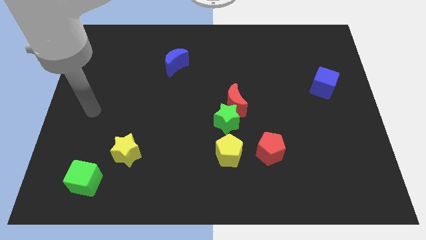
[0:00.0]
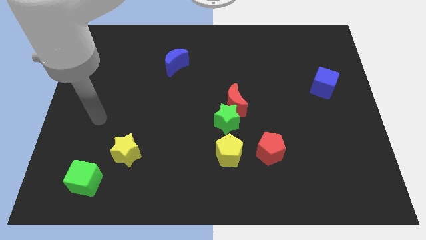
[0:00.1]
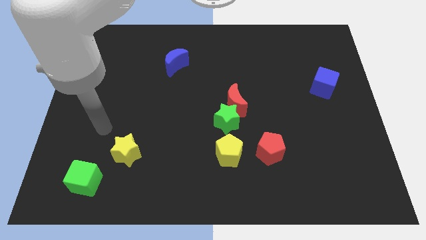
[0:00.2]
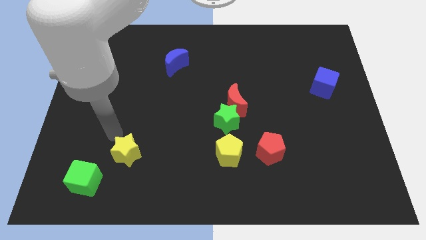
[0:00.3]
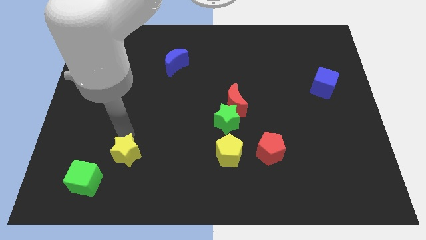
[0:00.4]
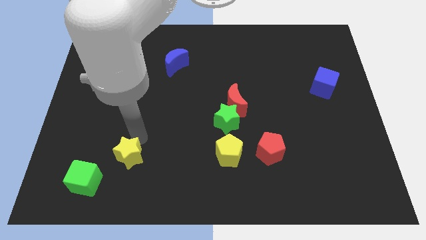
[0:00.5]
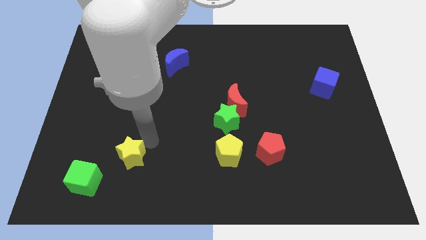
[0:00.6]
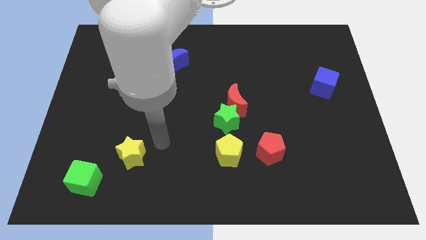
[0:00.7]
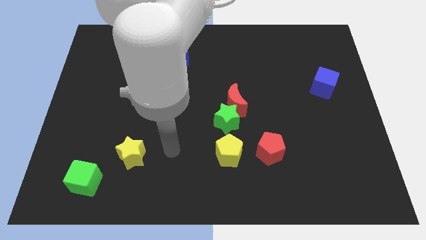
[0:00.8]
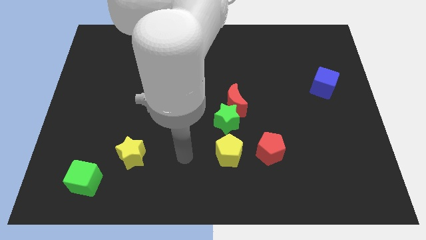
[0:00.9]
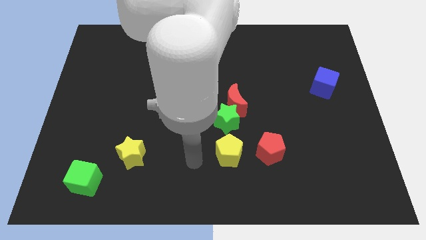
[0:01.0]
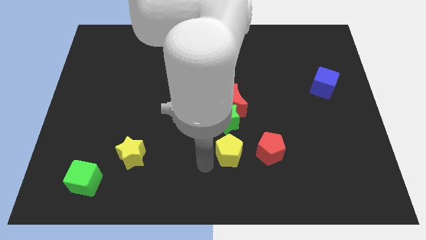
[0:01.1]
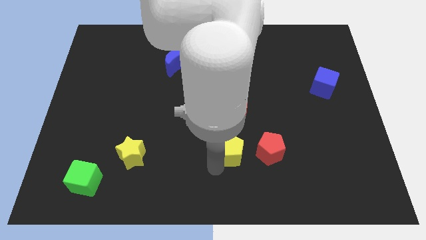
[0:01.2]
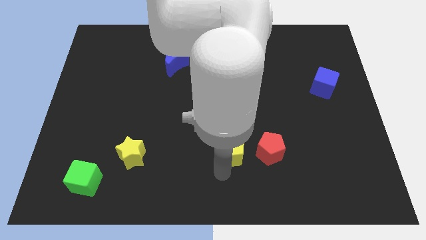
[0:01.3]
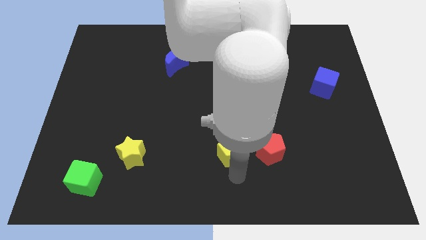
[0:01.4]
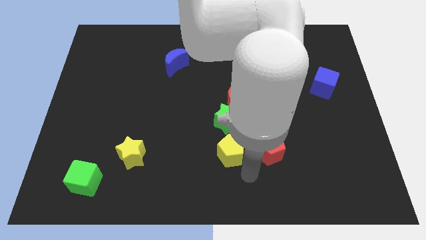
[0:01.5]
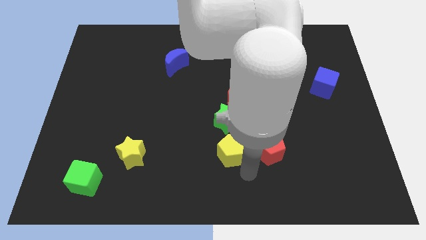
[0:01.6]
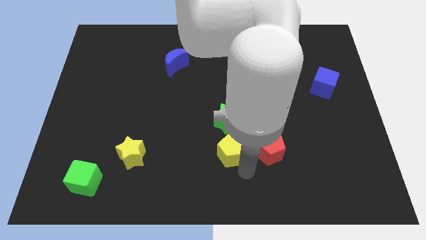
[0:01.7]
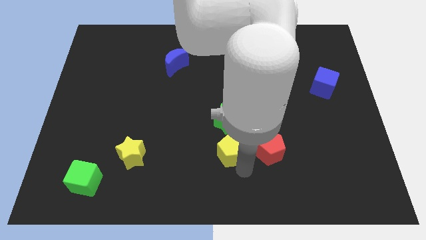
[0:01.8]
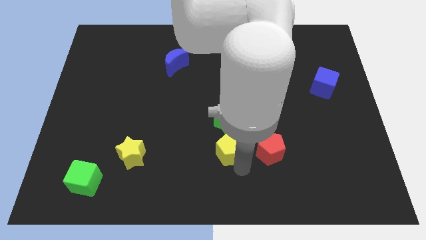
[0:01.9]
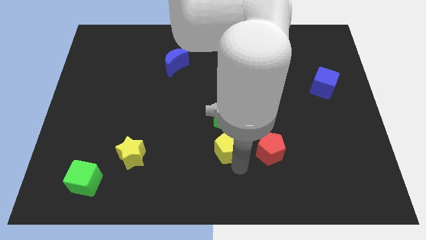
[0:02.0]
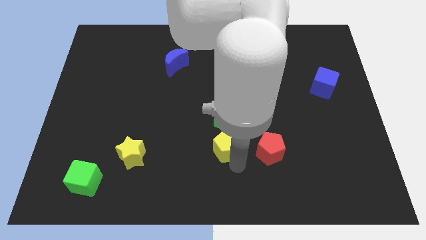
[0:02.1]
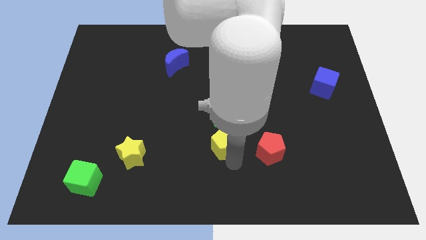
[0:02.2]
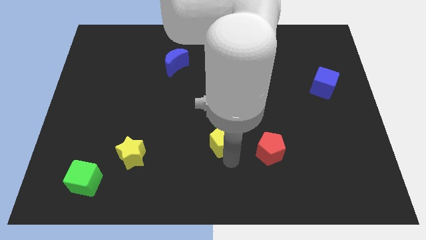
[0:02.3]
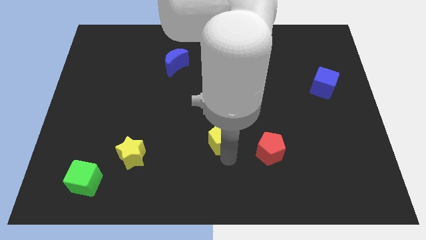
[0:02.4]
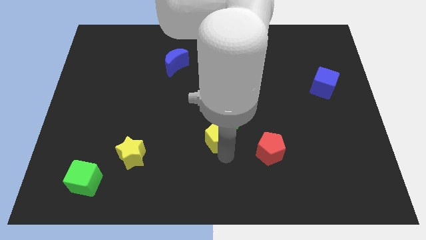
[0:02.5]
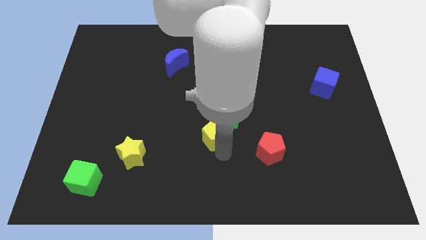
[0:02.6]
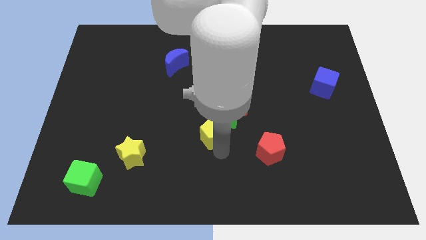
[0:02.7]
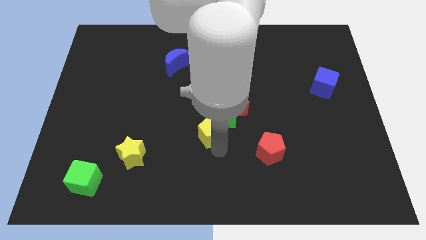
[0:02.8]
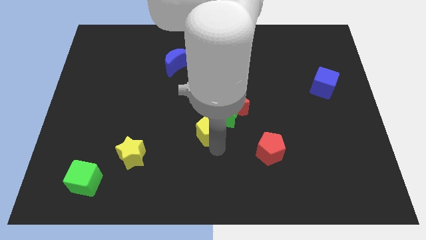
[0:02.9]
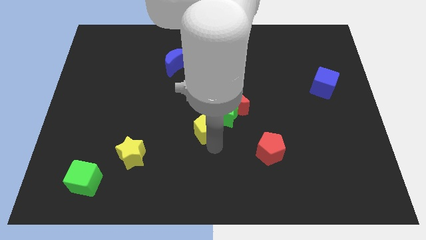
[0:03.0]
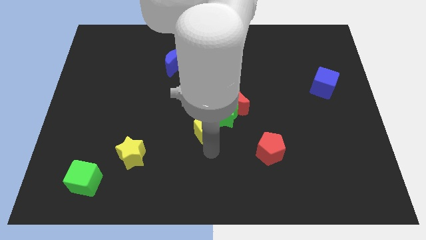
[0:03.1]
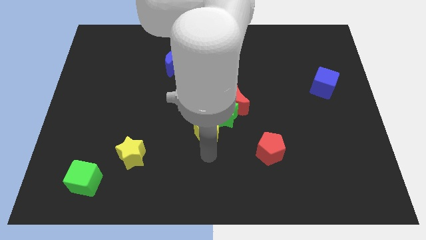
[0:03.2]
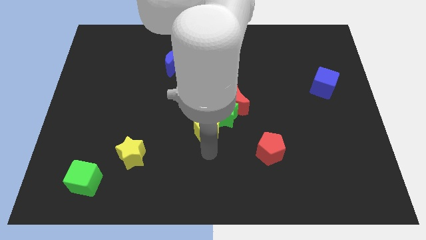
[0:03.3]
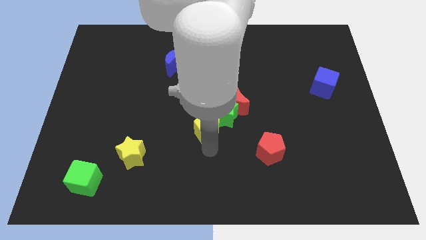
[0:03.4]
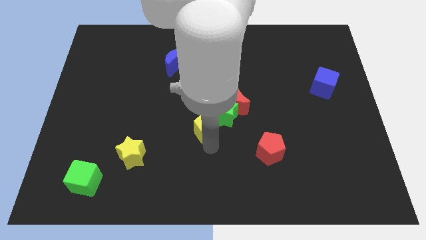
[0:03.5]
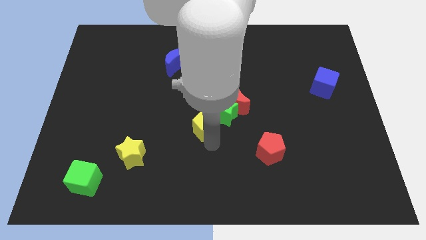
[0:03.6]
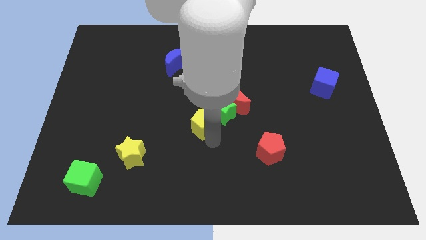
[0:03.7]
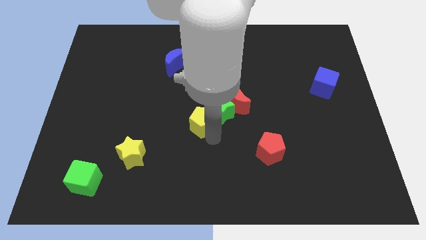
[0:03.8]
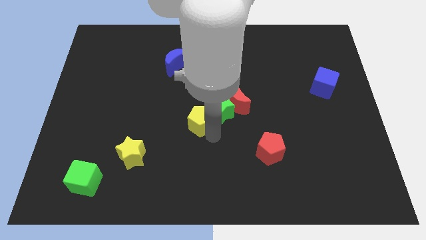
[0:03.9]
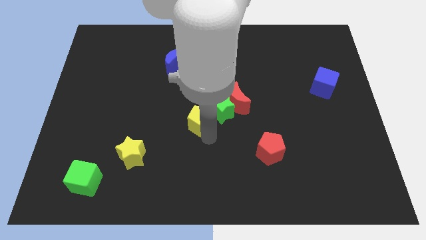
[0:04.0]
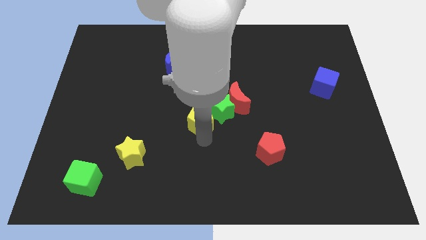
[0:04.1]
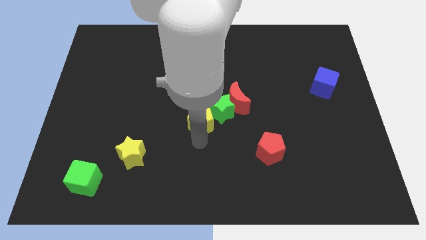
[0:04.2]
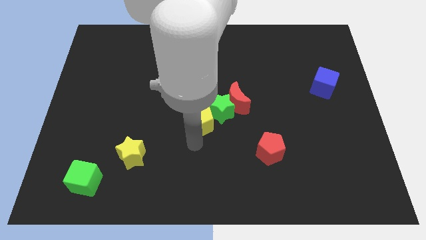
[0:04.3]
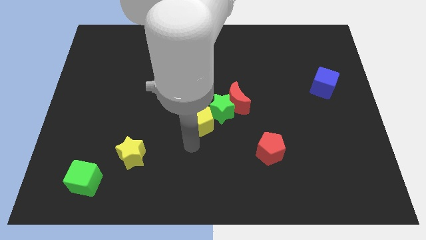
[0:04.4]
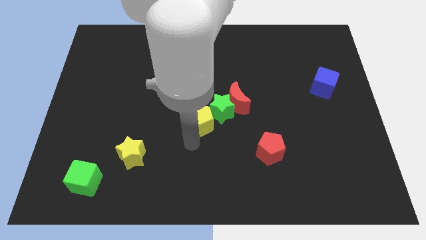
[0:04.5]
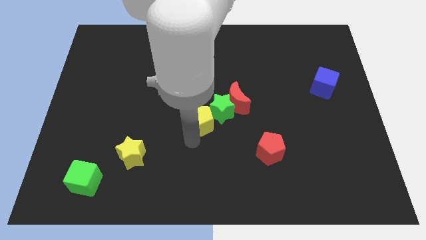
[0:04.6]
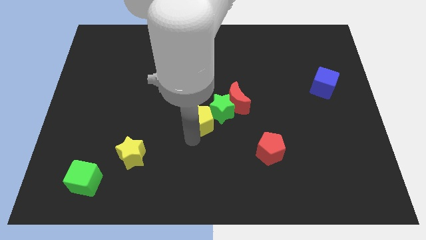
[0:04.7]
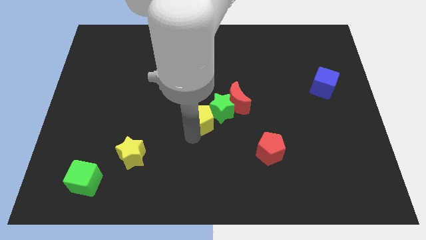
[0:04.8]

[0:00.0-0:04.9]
slide the yellow pentagon somewhat upwards

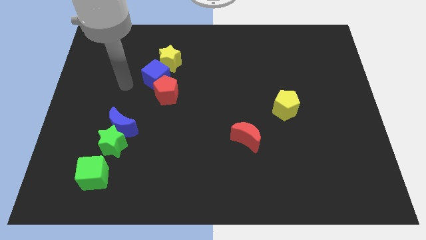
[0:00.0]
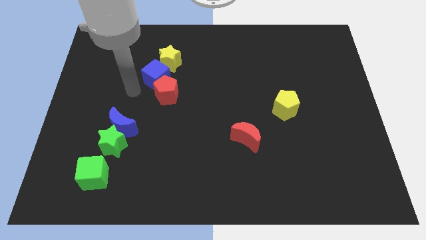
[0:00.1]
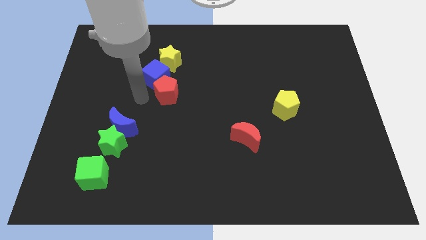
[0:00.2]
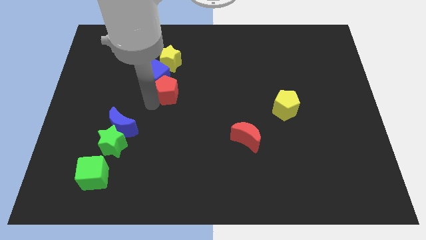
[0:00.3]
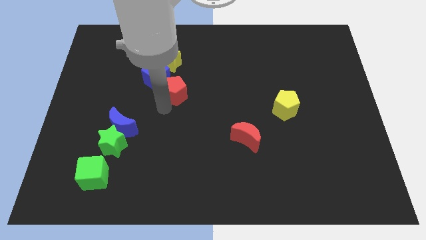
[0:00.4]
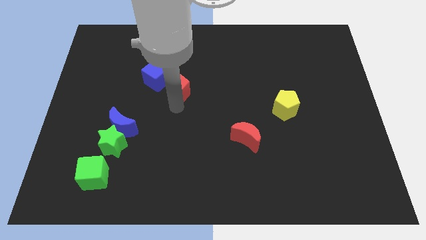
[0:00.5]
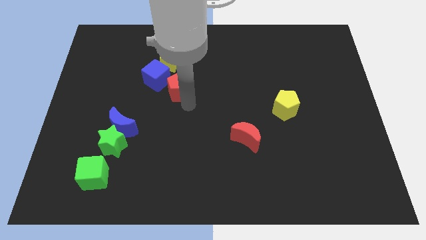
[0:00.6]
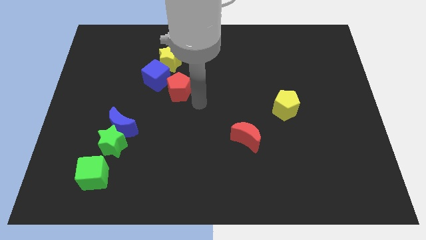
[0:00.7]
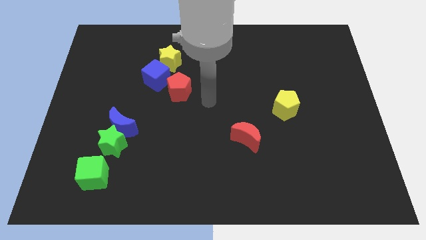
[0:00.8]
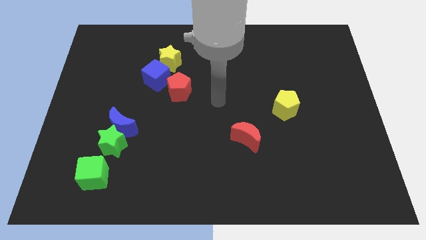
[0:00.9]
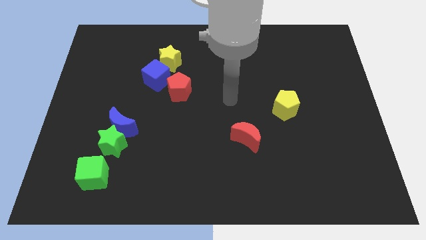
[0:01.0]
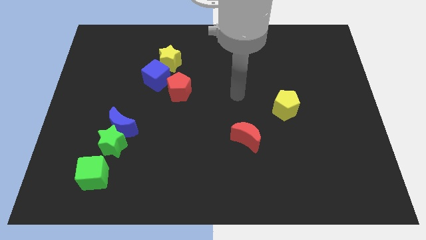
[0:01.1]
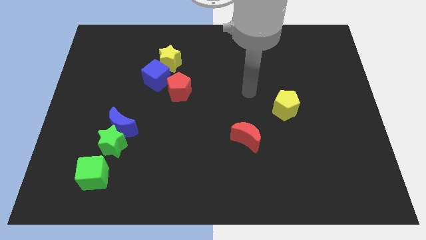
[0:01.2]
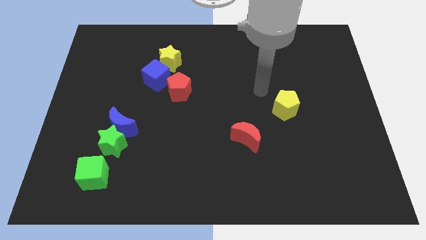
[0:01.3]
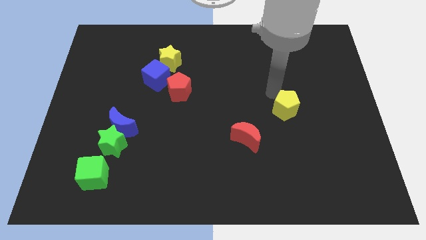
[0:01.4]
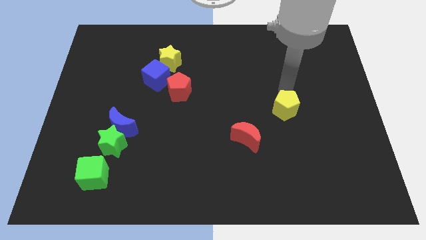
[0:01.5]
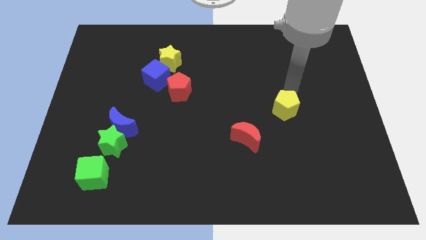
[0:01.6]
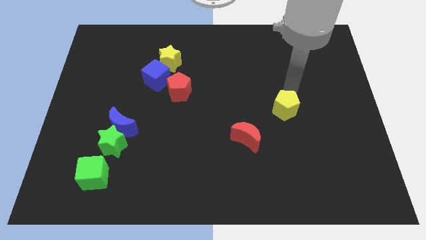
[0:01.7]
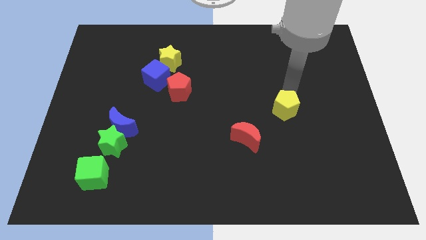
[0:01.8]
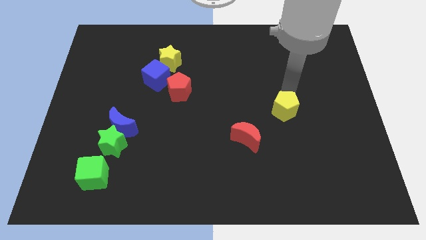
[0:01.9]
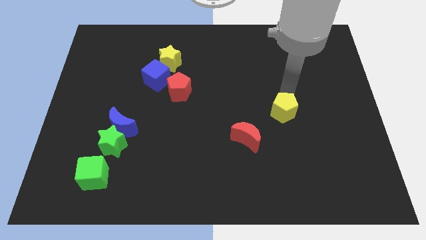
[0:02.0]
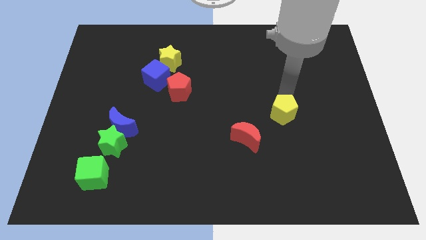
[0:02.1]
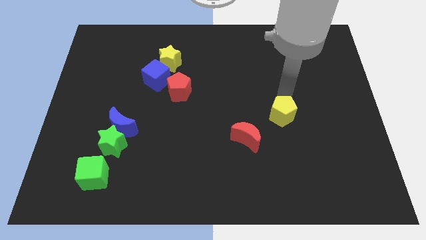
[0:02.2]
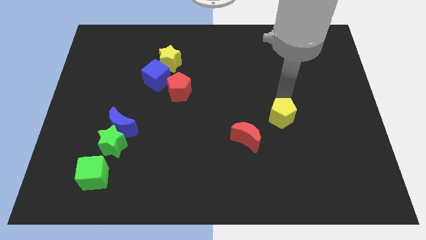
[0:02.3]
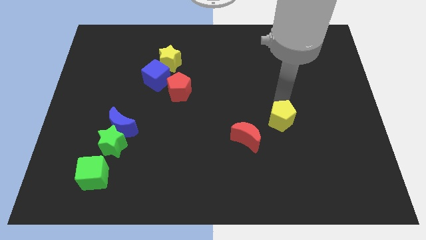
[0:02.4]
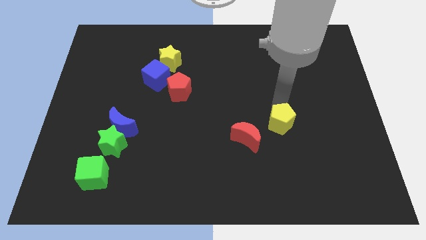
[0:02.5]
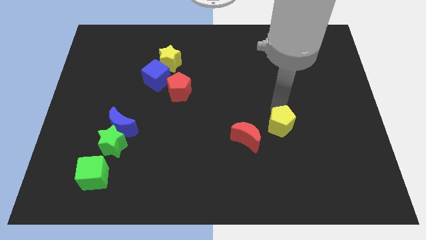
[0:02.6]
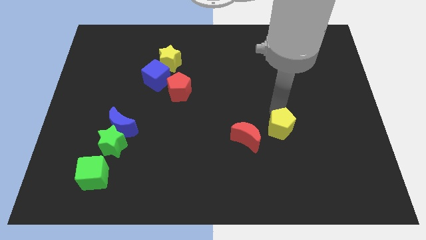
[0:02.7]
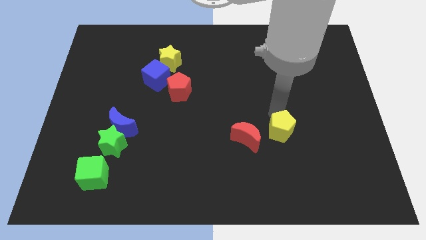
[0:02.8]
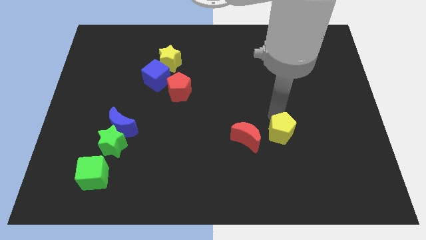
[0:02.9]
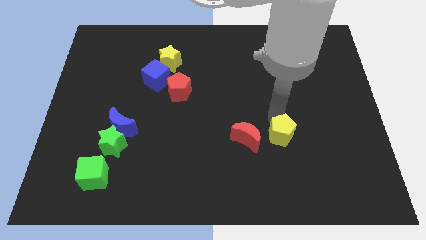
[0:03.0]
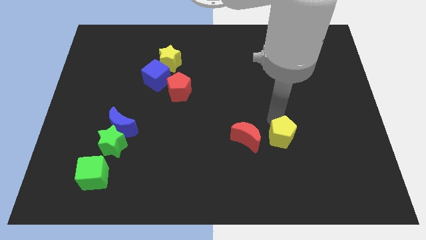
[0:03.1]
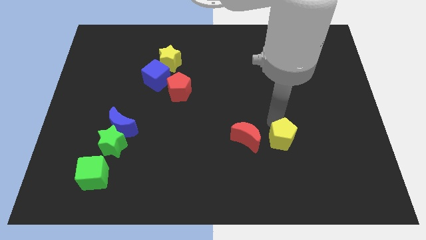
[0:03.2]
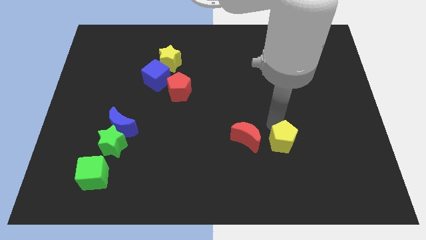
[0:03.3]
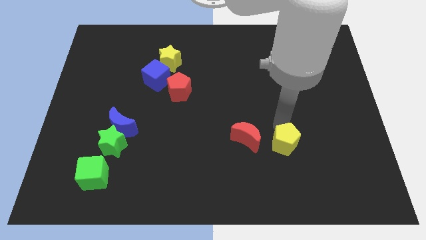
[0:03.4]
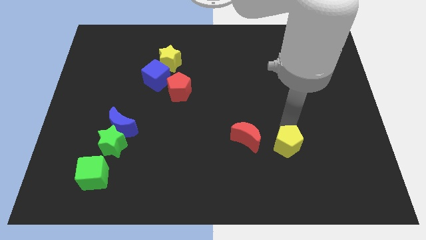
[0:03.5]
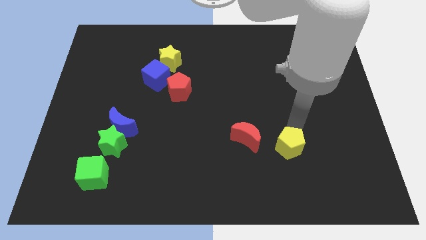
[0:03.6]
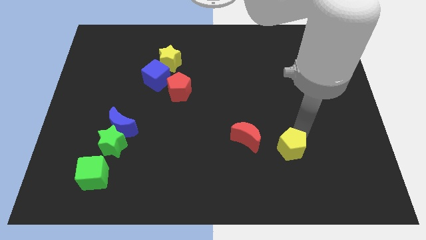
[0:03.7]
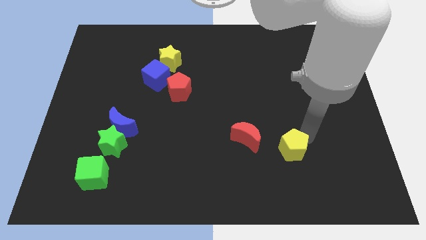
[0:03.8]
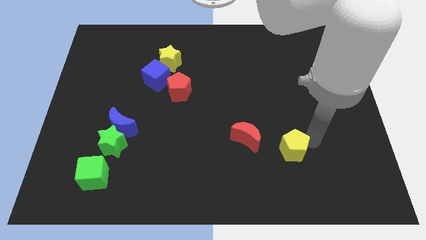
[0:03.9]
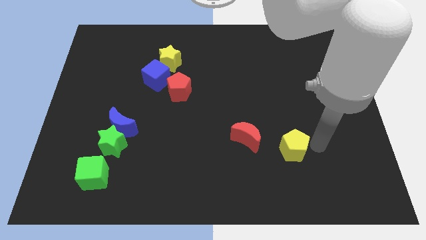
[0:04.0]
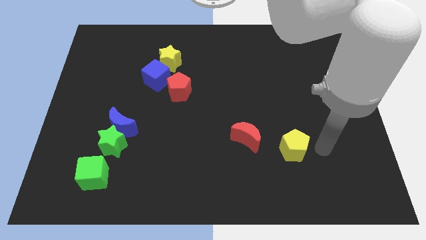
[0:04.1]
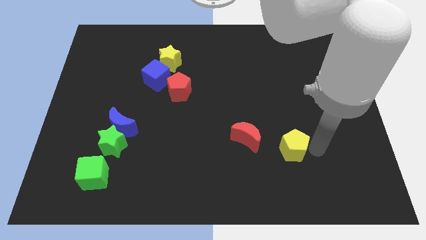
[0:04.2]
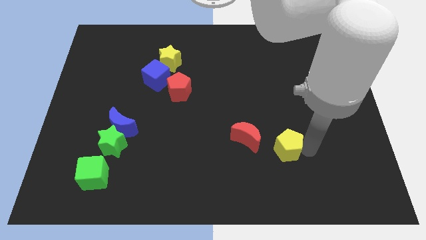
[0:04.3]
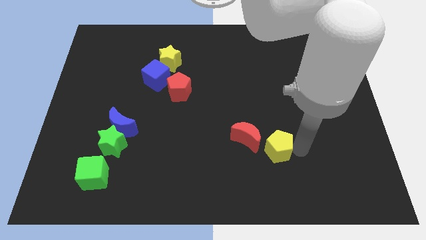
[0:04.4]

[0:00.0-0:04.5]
move the yellow pentagon slightly down and to the left diagonally
